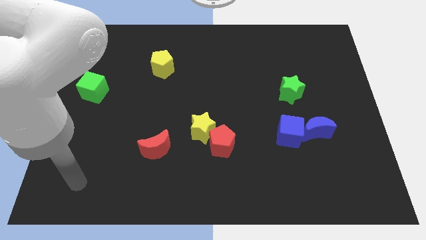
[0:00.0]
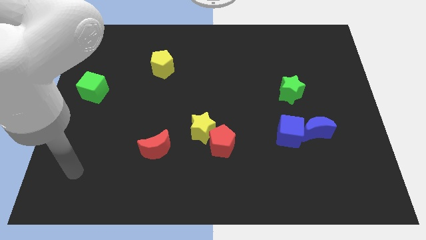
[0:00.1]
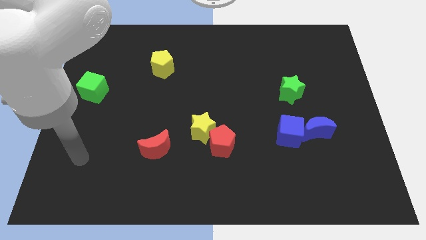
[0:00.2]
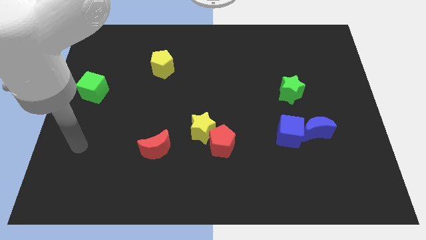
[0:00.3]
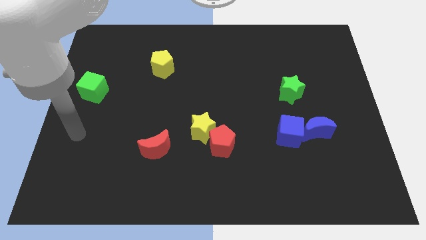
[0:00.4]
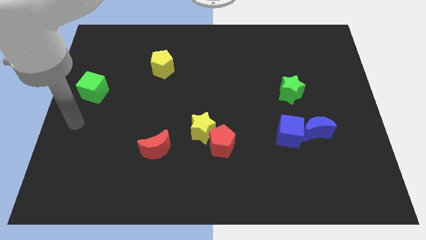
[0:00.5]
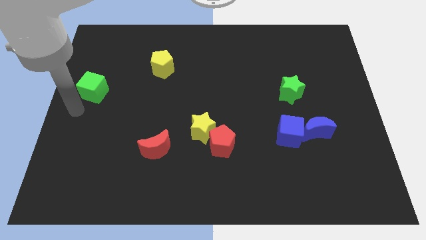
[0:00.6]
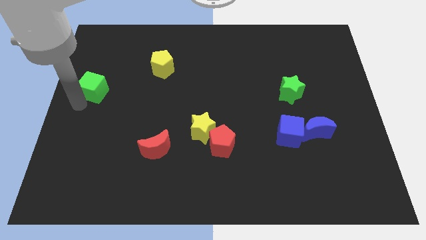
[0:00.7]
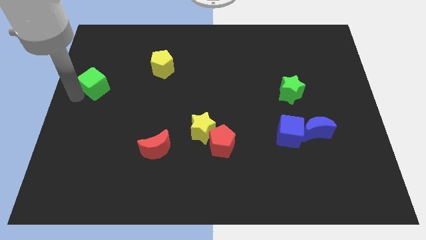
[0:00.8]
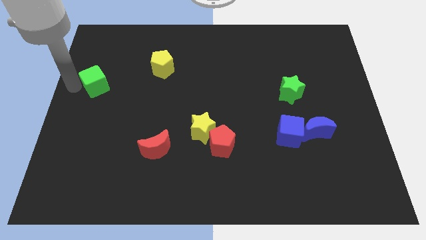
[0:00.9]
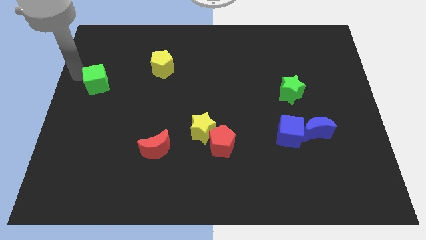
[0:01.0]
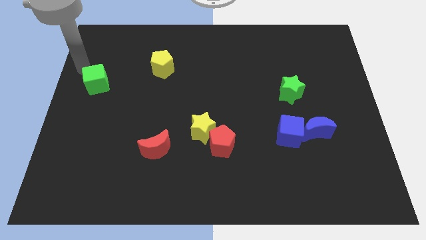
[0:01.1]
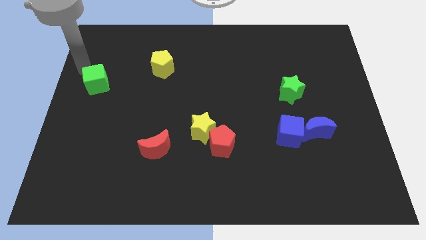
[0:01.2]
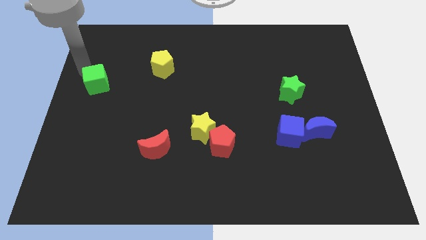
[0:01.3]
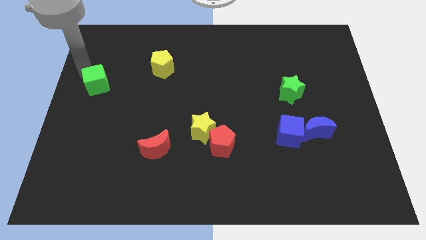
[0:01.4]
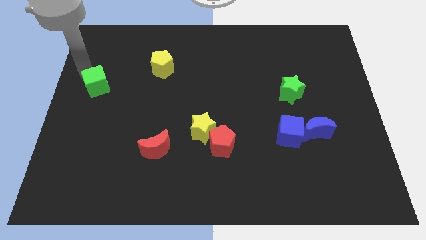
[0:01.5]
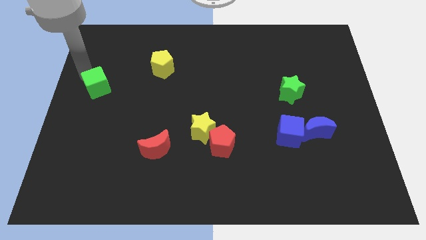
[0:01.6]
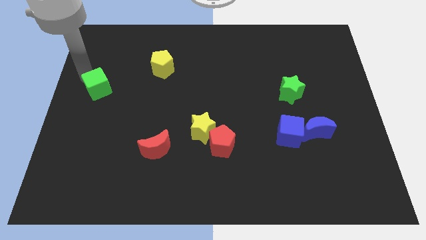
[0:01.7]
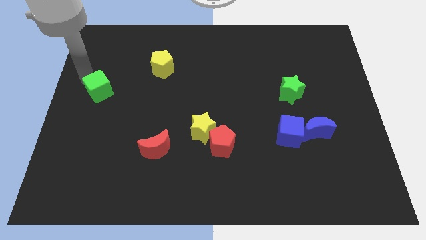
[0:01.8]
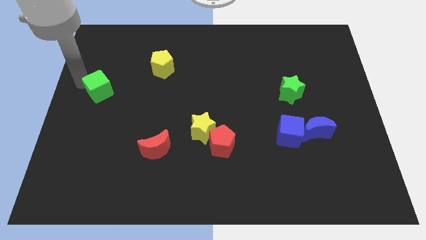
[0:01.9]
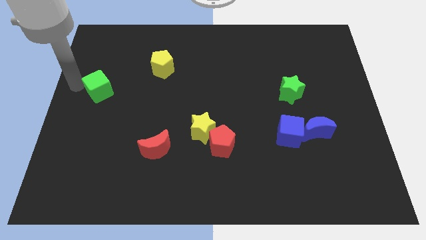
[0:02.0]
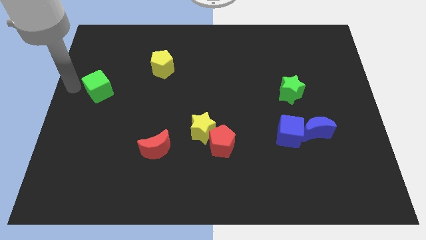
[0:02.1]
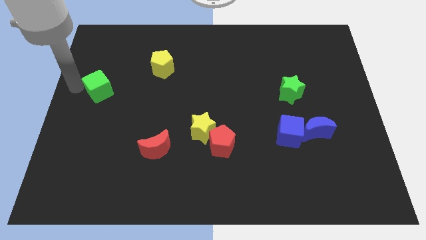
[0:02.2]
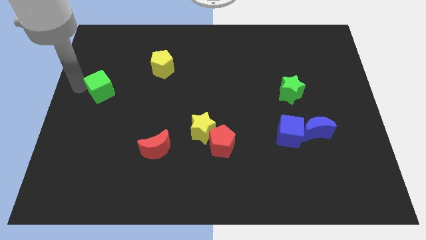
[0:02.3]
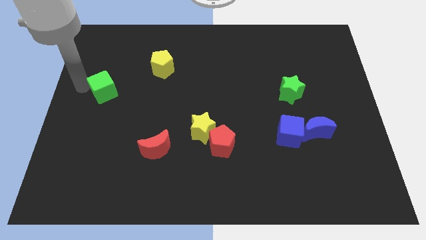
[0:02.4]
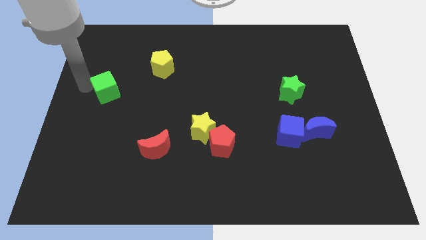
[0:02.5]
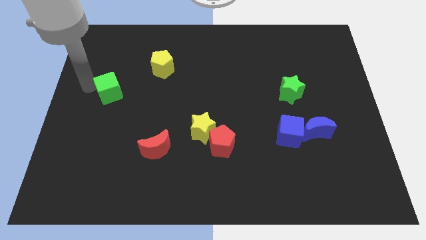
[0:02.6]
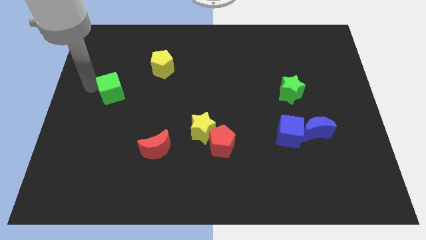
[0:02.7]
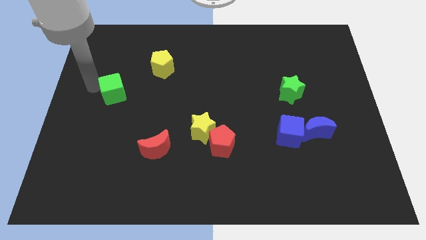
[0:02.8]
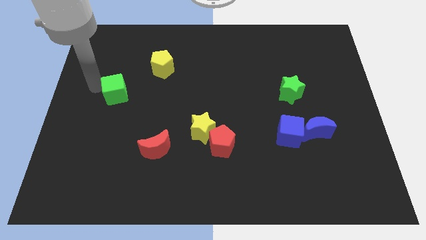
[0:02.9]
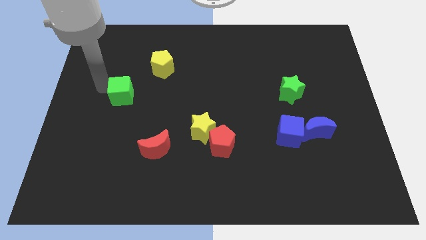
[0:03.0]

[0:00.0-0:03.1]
slightly move the green cube to the right

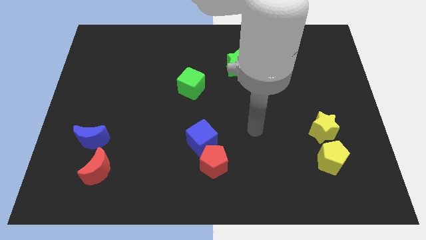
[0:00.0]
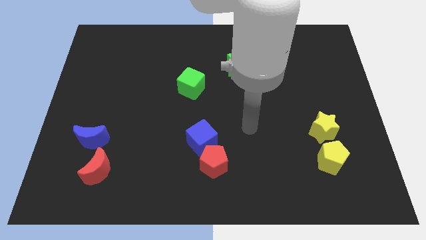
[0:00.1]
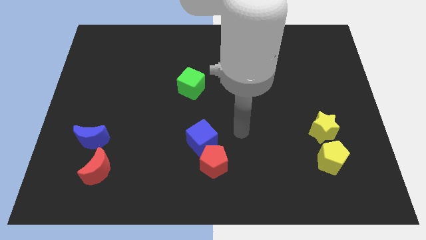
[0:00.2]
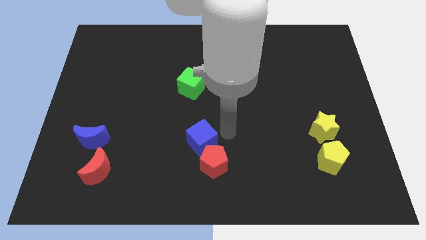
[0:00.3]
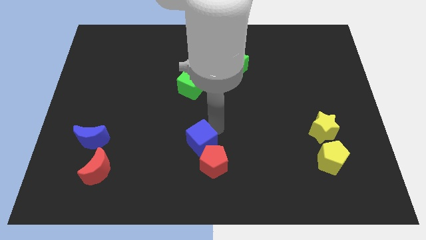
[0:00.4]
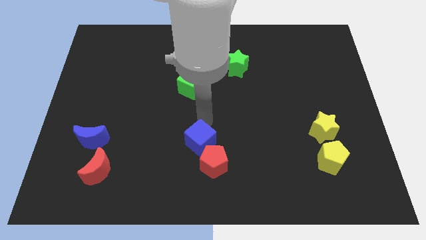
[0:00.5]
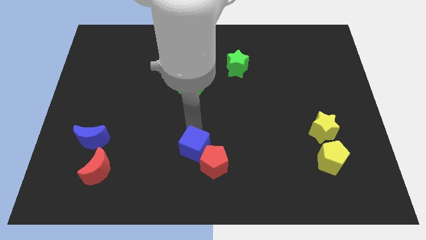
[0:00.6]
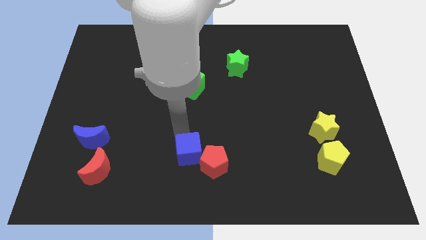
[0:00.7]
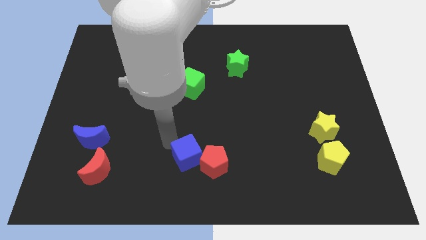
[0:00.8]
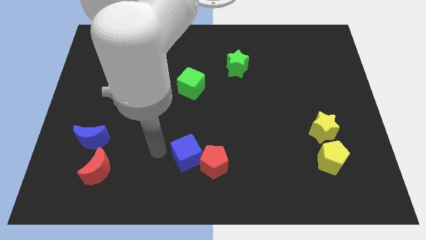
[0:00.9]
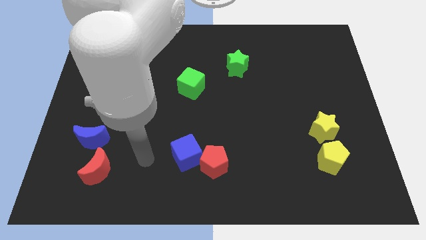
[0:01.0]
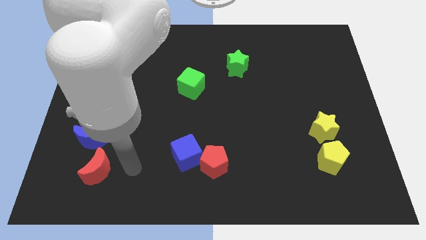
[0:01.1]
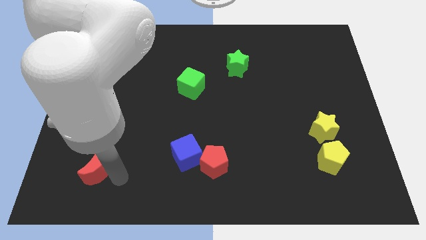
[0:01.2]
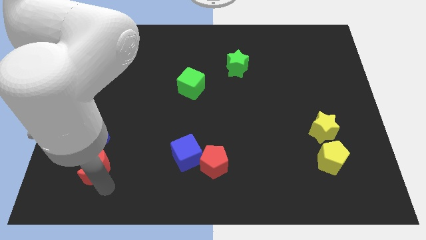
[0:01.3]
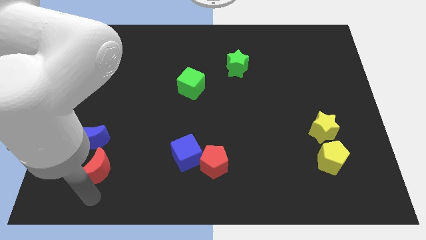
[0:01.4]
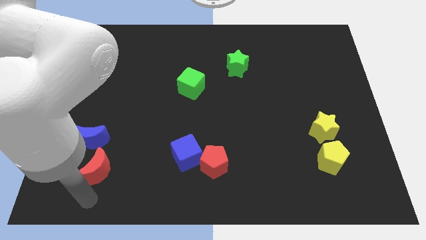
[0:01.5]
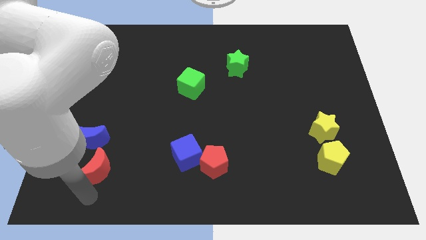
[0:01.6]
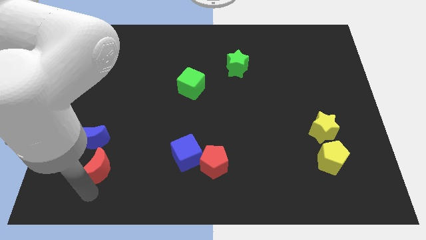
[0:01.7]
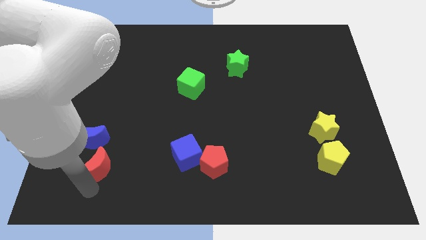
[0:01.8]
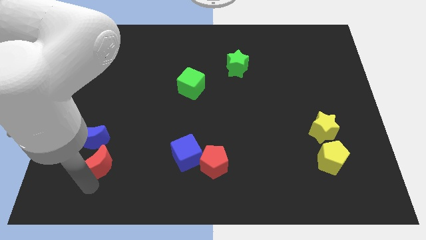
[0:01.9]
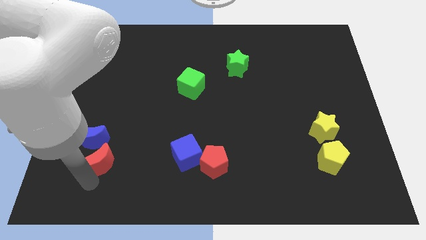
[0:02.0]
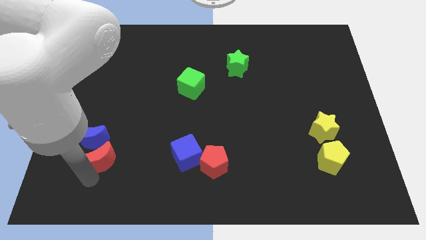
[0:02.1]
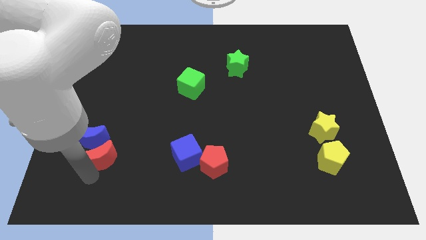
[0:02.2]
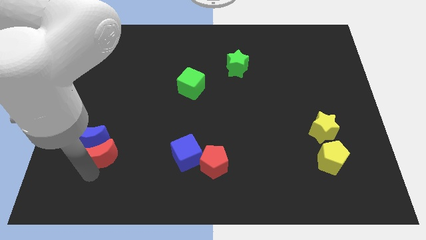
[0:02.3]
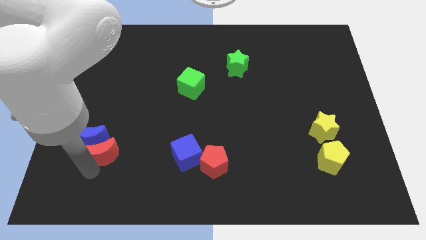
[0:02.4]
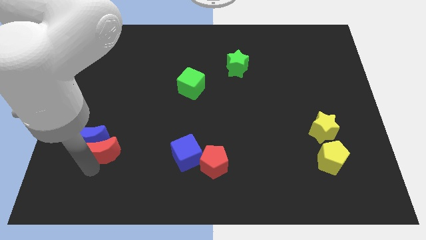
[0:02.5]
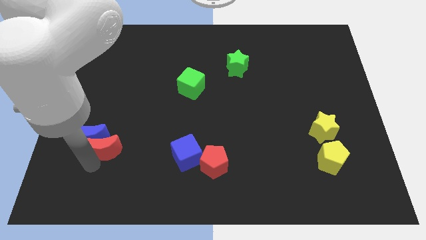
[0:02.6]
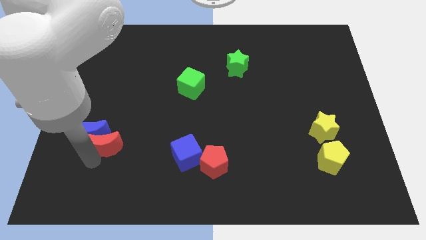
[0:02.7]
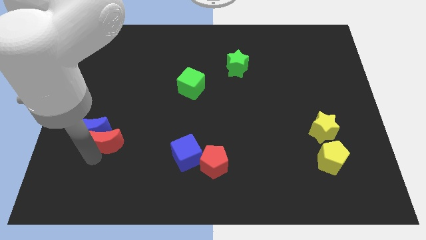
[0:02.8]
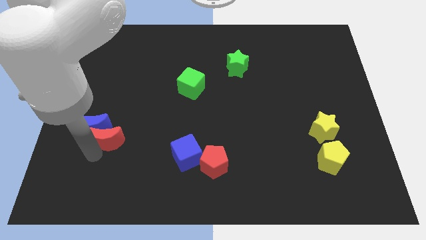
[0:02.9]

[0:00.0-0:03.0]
push the red moon a little bit upwards

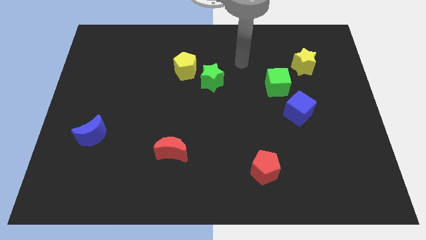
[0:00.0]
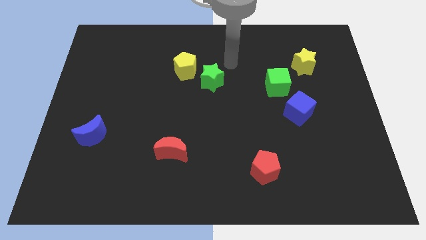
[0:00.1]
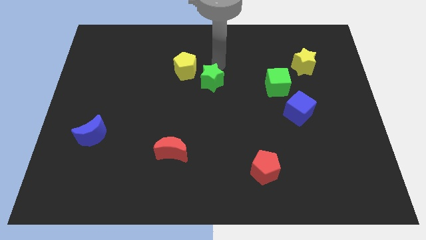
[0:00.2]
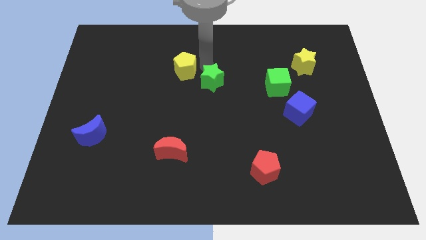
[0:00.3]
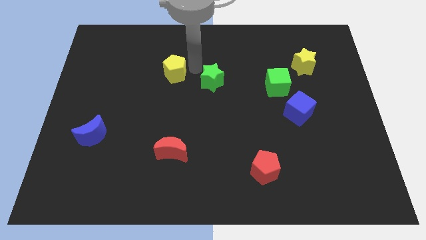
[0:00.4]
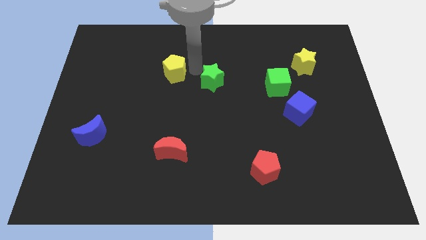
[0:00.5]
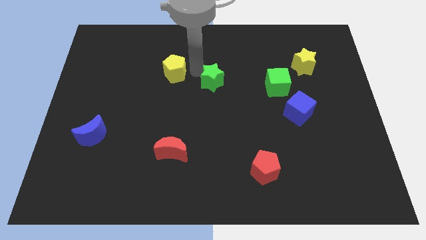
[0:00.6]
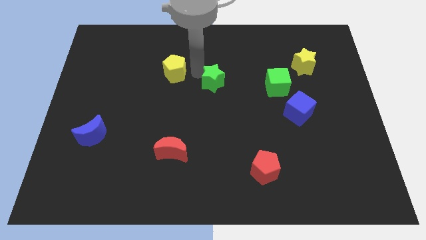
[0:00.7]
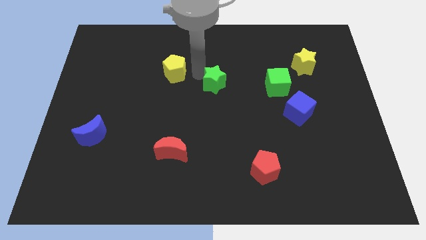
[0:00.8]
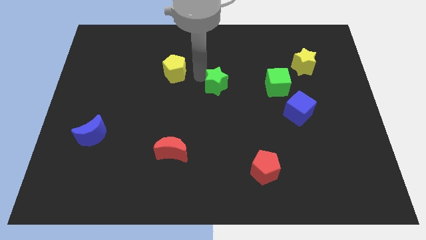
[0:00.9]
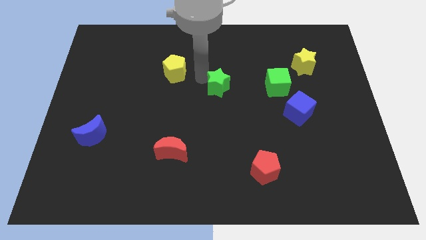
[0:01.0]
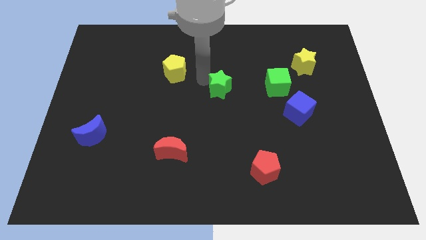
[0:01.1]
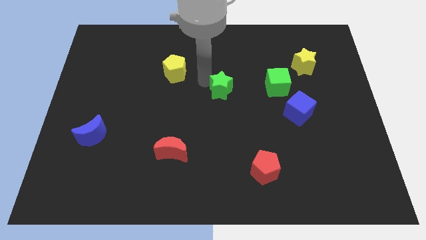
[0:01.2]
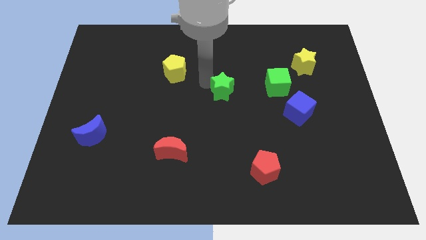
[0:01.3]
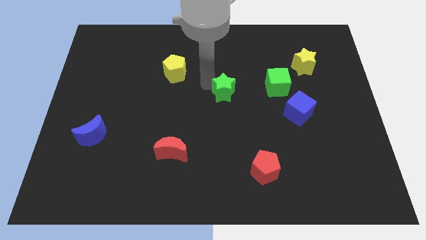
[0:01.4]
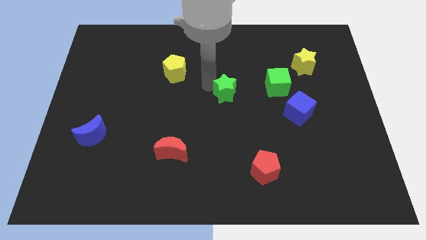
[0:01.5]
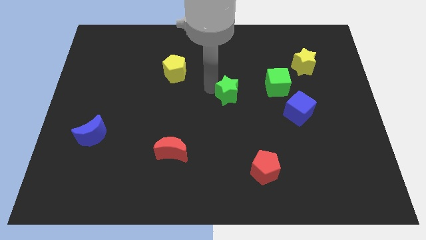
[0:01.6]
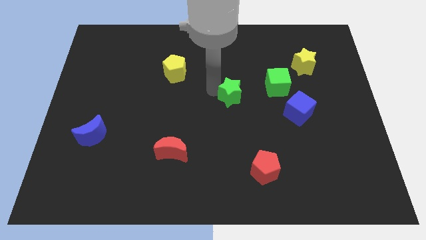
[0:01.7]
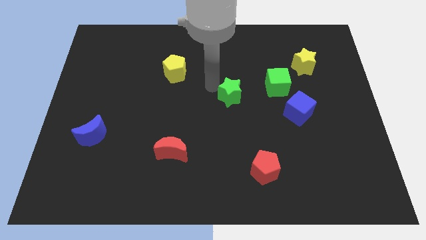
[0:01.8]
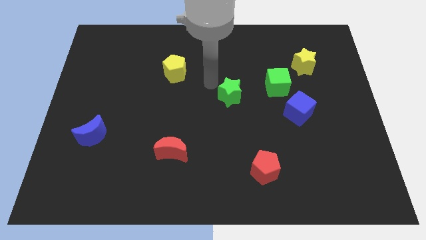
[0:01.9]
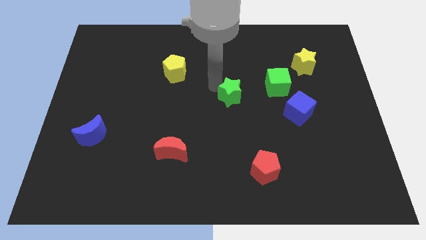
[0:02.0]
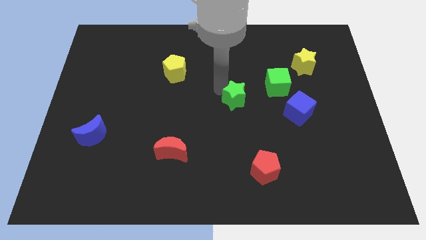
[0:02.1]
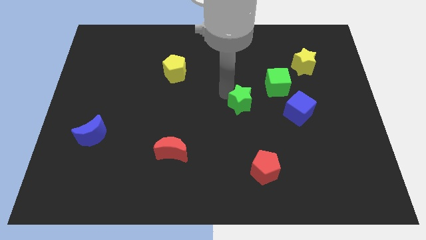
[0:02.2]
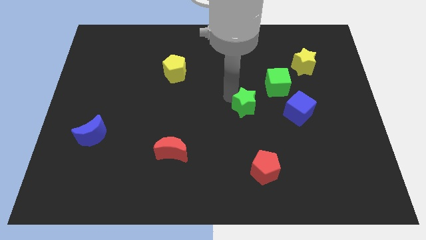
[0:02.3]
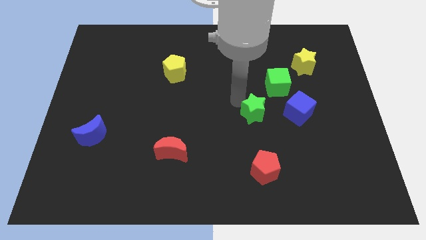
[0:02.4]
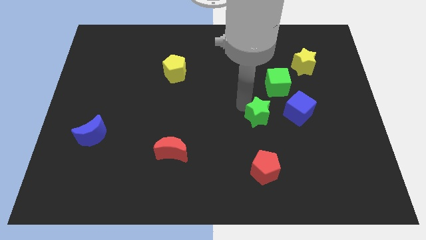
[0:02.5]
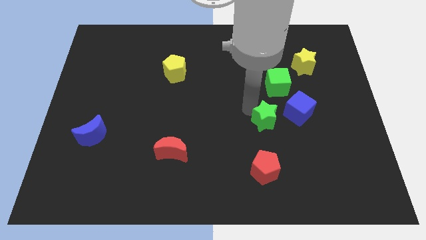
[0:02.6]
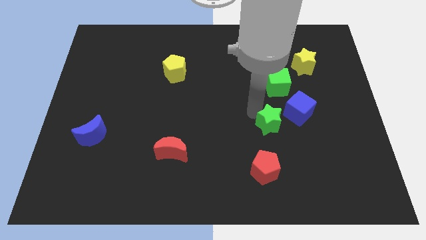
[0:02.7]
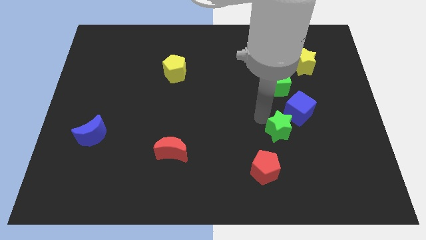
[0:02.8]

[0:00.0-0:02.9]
slide the green star down and right diagonally
